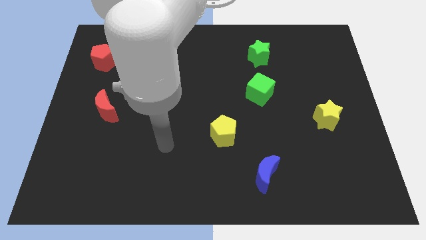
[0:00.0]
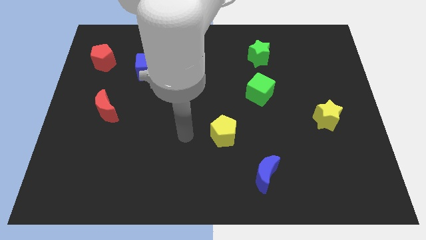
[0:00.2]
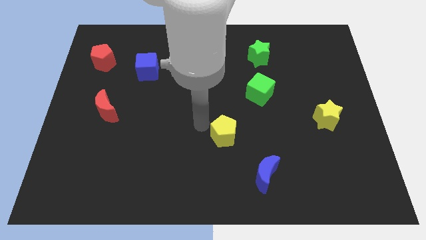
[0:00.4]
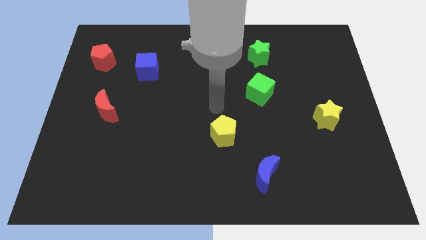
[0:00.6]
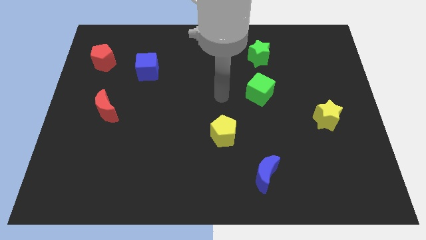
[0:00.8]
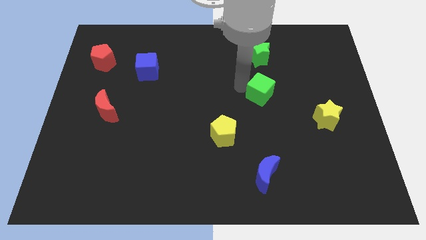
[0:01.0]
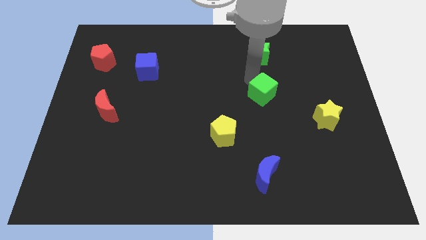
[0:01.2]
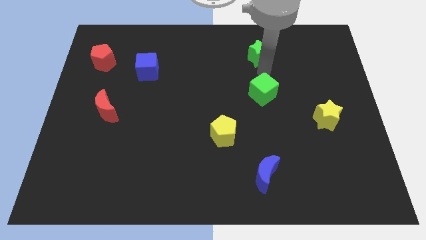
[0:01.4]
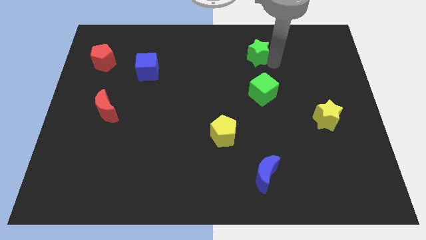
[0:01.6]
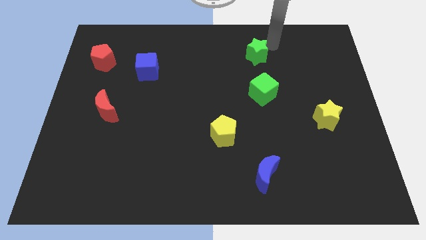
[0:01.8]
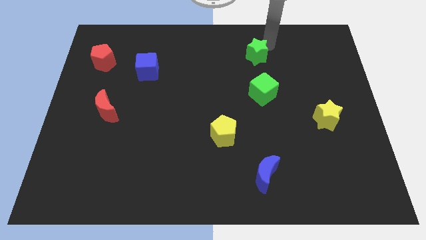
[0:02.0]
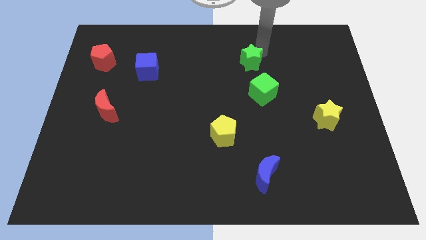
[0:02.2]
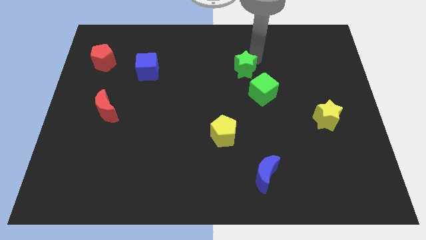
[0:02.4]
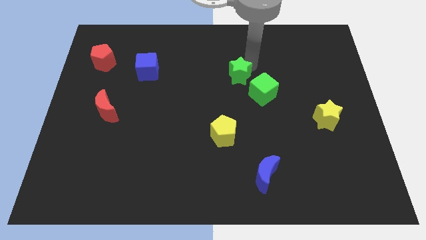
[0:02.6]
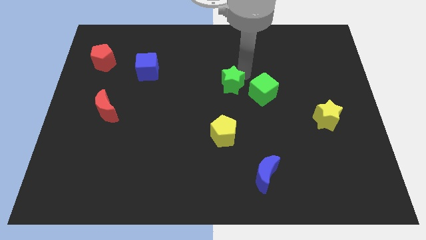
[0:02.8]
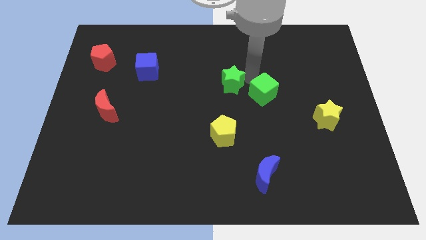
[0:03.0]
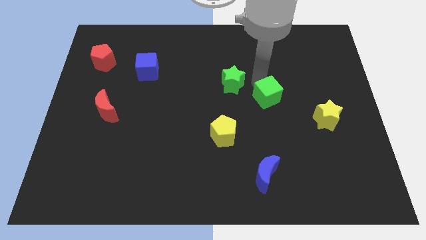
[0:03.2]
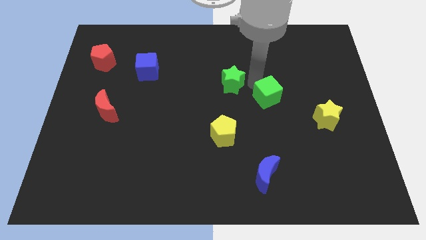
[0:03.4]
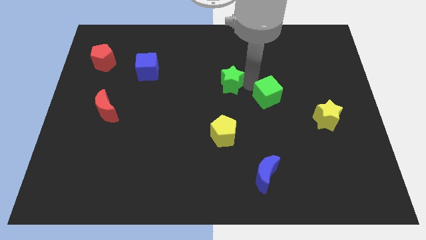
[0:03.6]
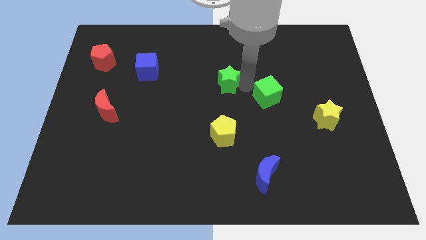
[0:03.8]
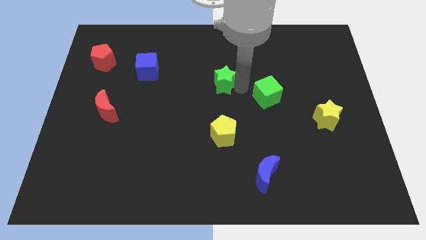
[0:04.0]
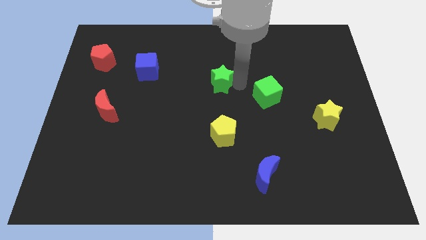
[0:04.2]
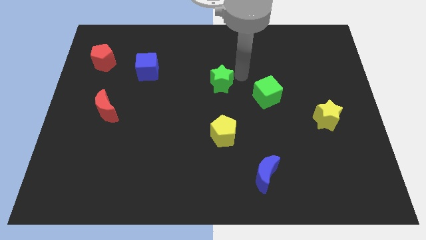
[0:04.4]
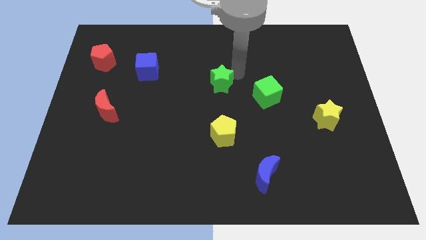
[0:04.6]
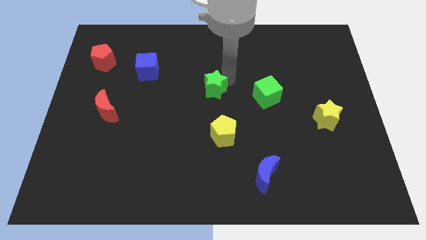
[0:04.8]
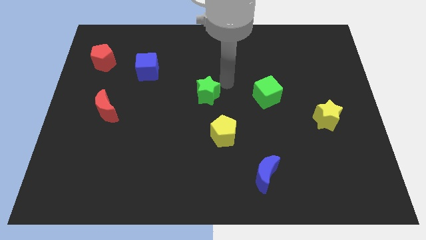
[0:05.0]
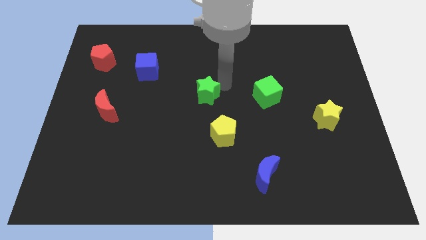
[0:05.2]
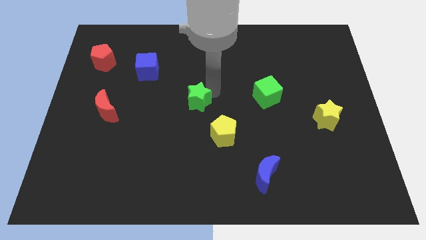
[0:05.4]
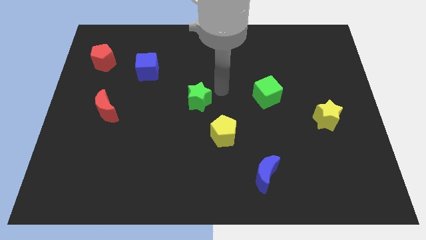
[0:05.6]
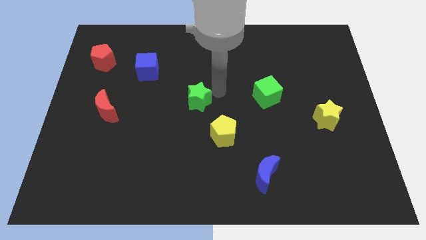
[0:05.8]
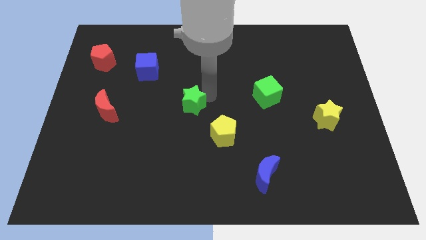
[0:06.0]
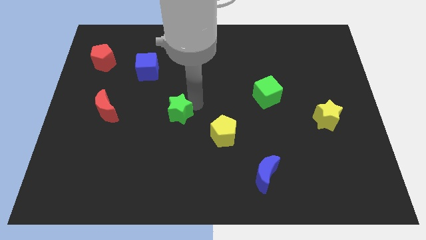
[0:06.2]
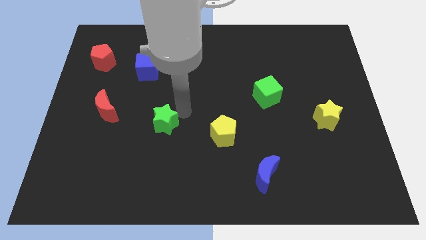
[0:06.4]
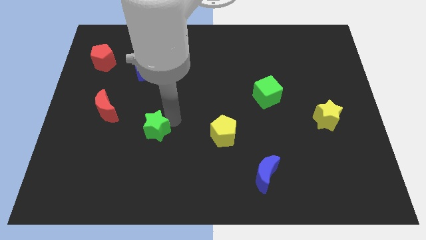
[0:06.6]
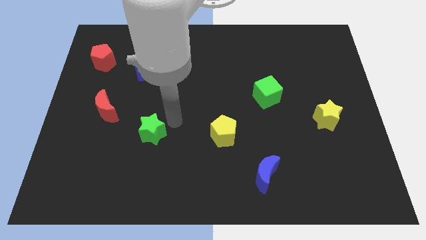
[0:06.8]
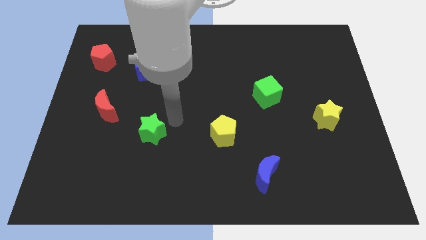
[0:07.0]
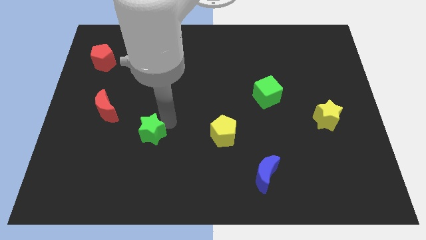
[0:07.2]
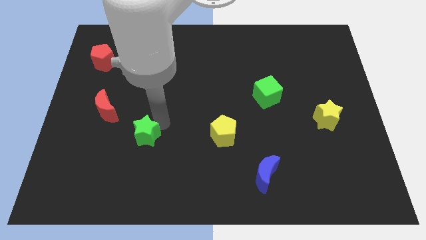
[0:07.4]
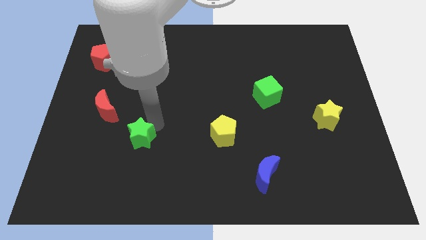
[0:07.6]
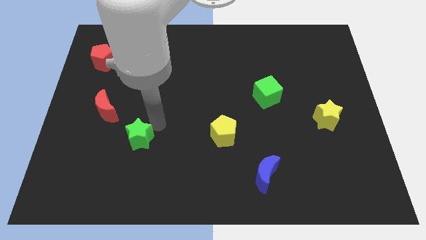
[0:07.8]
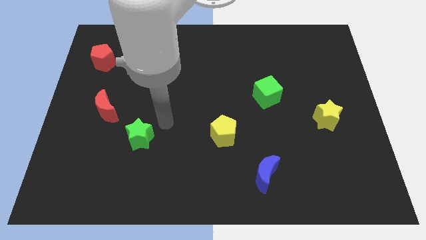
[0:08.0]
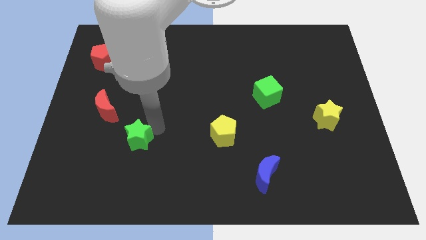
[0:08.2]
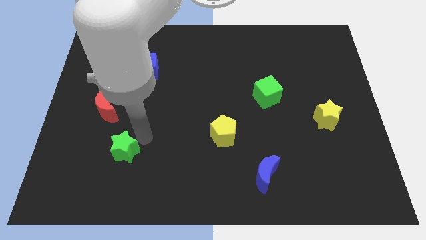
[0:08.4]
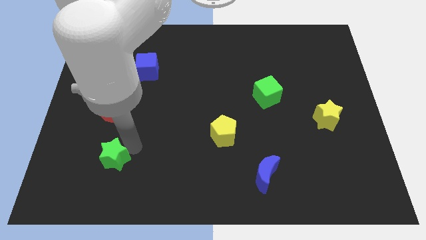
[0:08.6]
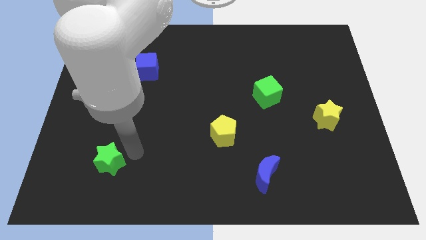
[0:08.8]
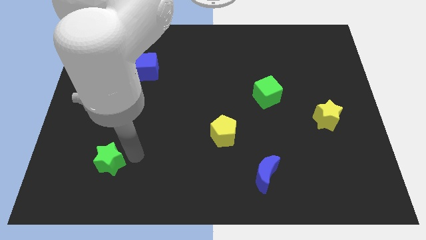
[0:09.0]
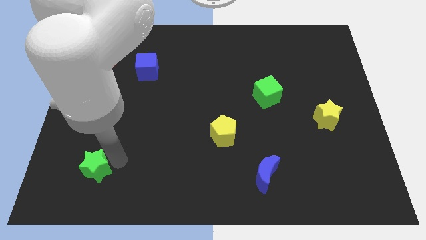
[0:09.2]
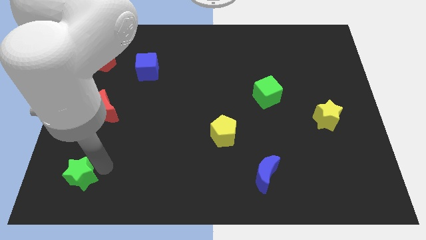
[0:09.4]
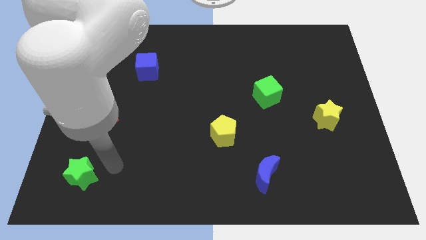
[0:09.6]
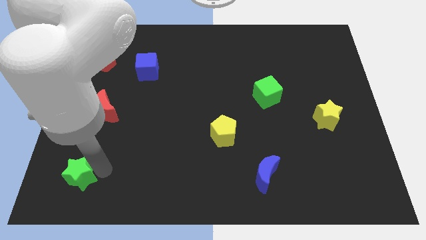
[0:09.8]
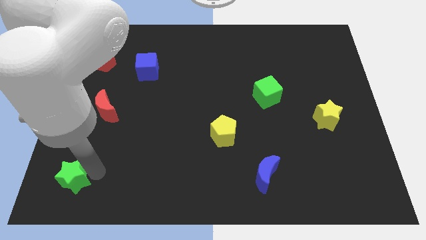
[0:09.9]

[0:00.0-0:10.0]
push the green star to the bottom left corner

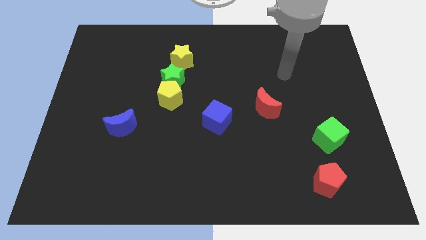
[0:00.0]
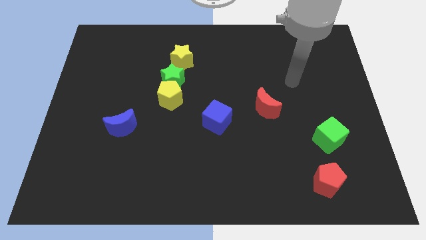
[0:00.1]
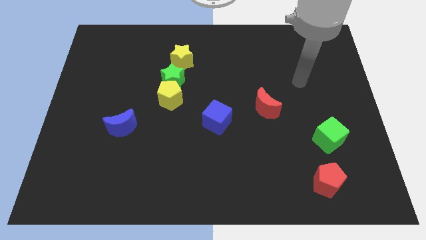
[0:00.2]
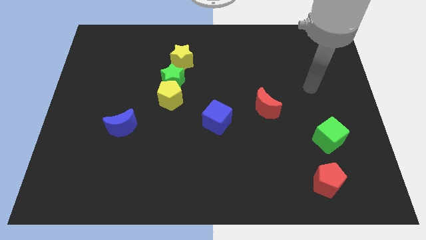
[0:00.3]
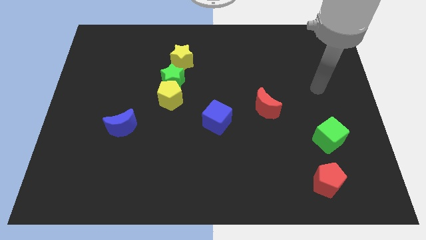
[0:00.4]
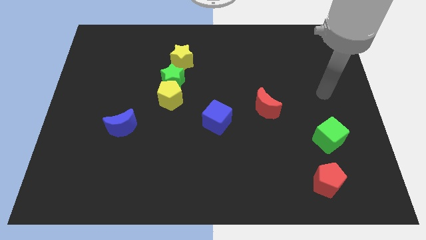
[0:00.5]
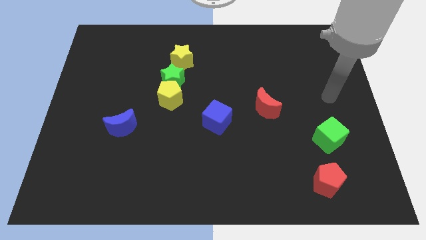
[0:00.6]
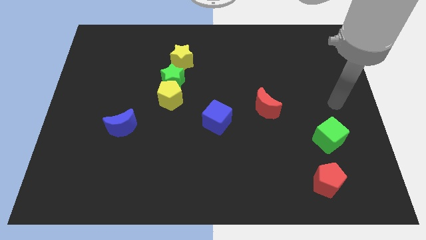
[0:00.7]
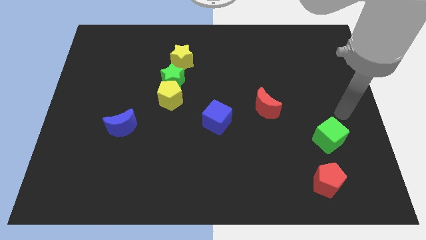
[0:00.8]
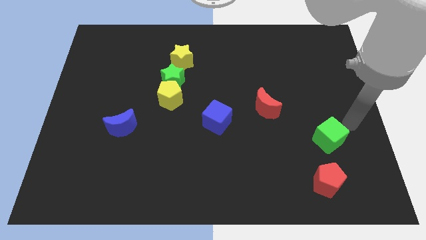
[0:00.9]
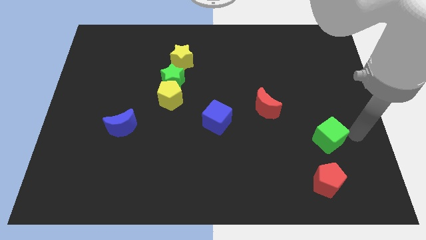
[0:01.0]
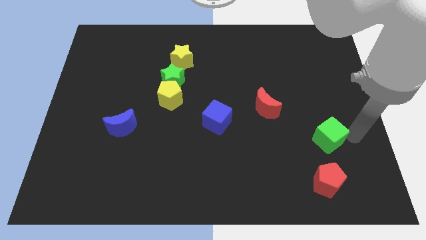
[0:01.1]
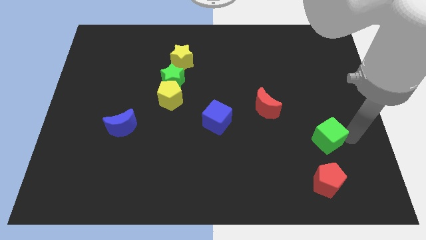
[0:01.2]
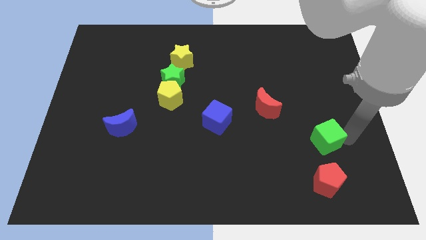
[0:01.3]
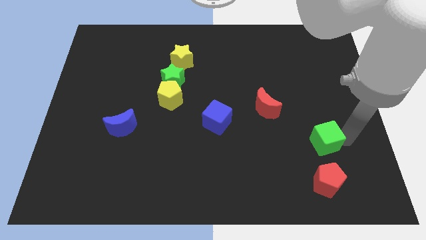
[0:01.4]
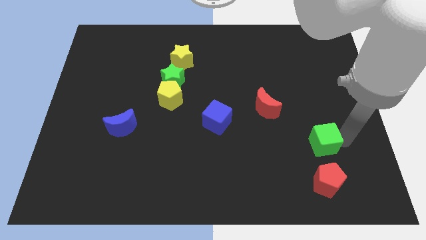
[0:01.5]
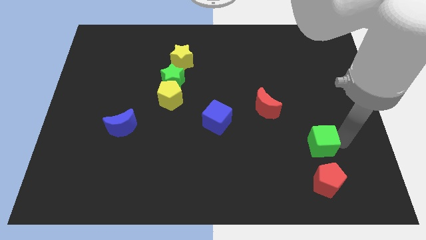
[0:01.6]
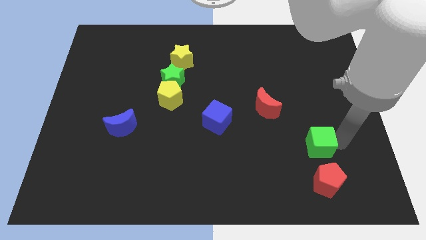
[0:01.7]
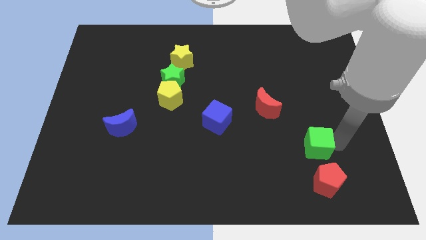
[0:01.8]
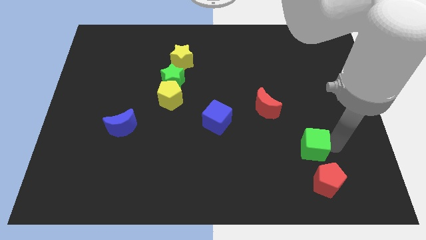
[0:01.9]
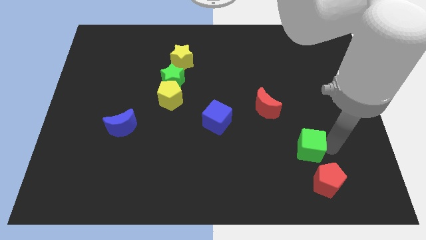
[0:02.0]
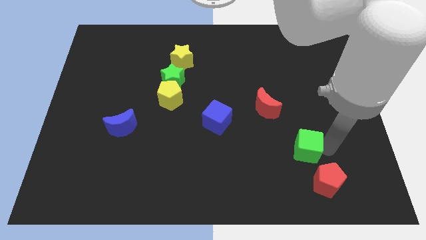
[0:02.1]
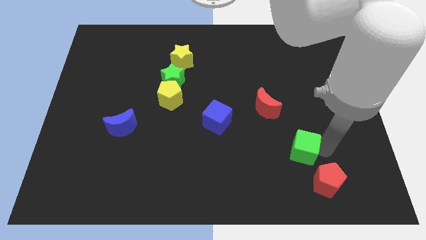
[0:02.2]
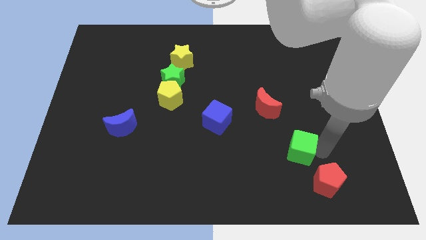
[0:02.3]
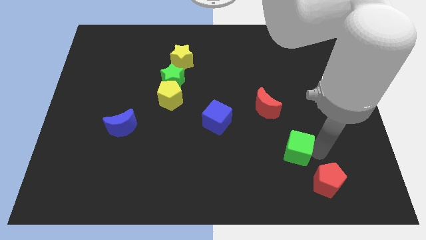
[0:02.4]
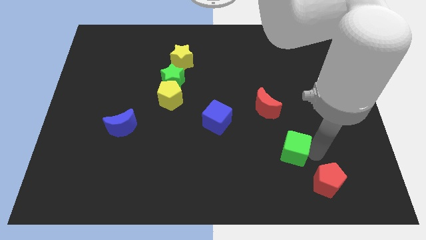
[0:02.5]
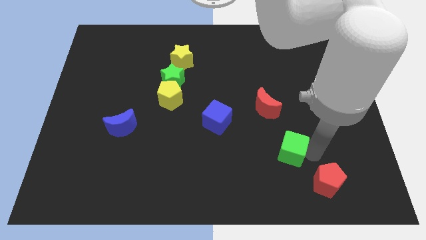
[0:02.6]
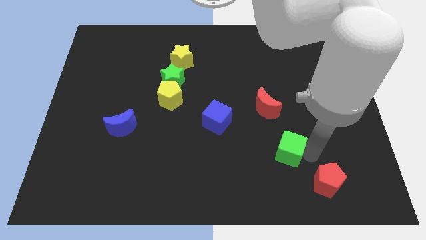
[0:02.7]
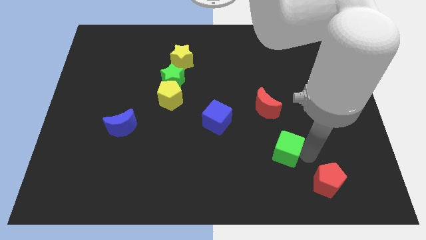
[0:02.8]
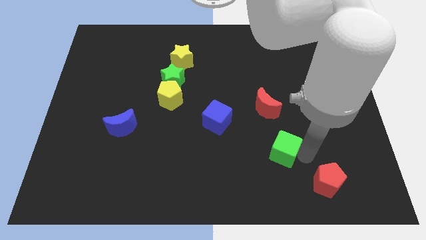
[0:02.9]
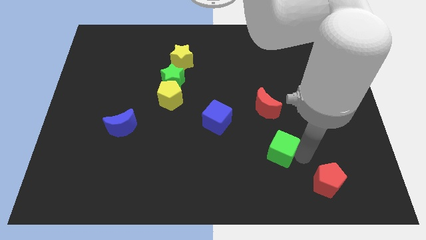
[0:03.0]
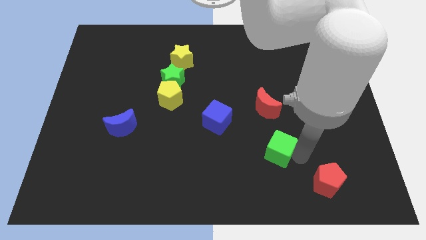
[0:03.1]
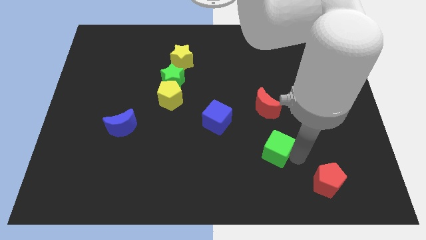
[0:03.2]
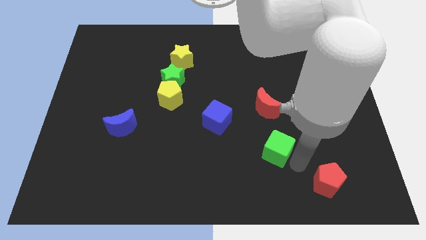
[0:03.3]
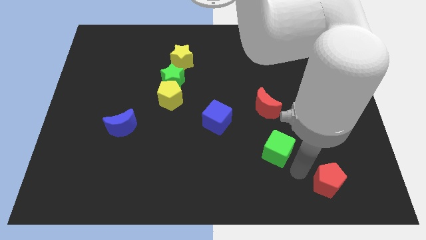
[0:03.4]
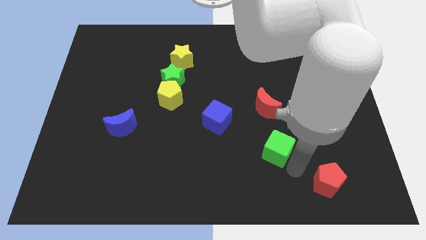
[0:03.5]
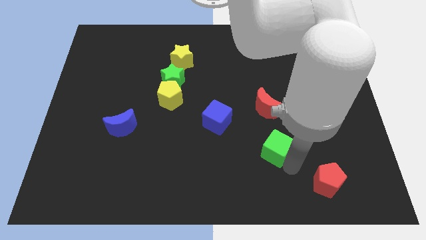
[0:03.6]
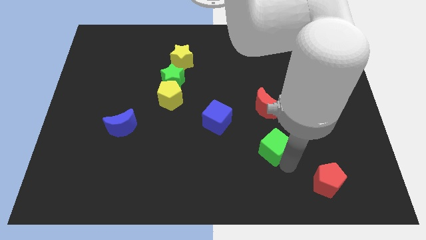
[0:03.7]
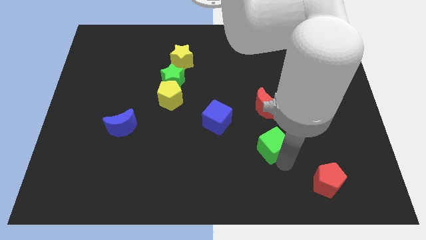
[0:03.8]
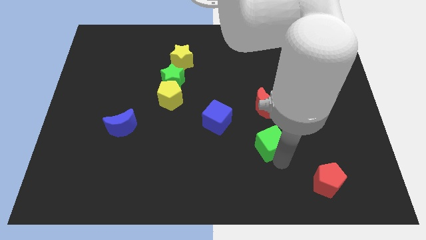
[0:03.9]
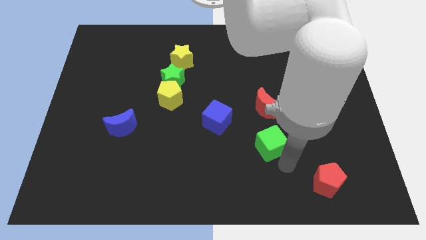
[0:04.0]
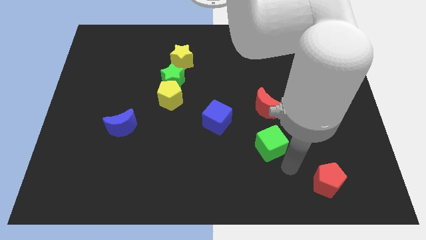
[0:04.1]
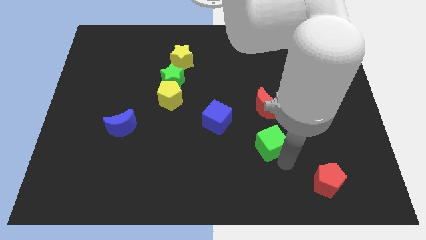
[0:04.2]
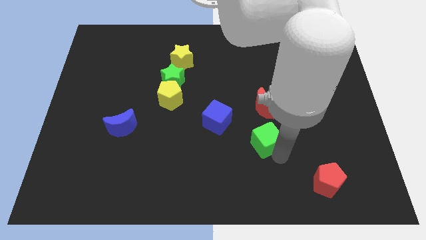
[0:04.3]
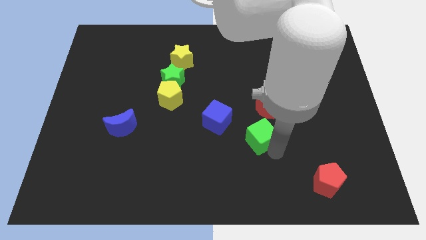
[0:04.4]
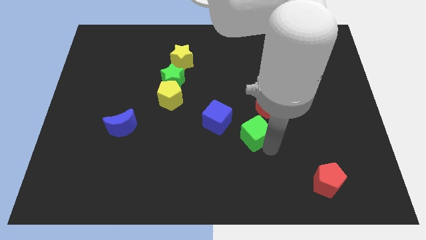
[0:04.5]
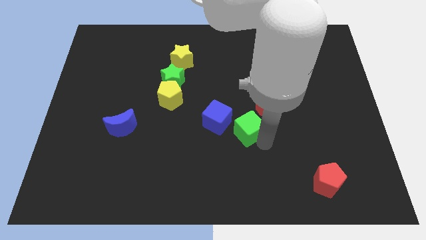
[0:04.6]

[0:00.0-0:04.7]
slide the green cube to the center of the board
